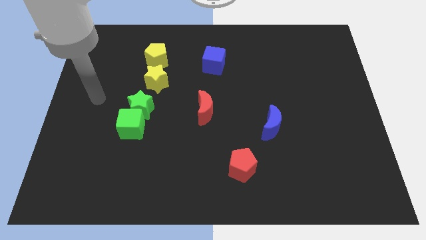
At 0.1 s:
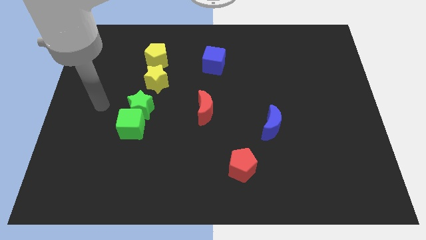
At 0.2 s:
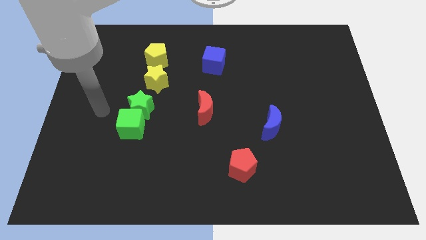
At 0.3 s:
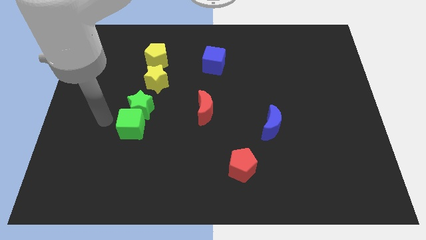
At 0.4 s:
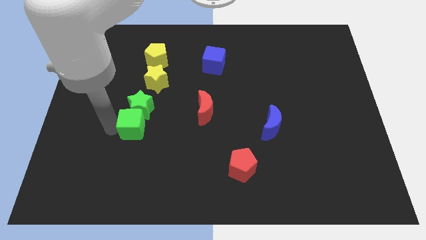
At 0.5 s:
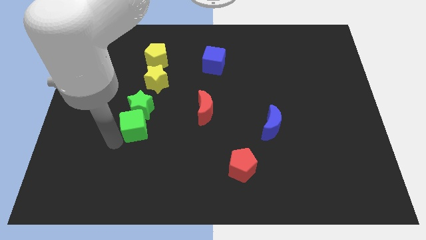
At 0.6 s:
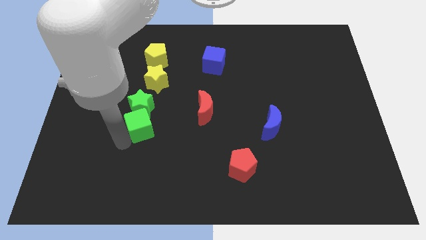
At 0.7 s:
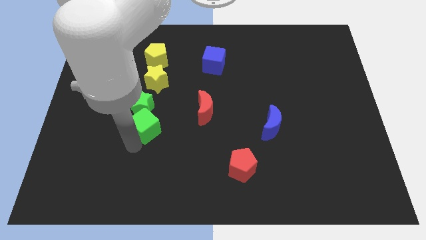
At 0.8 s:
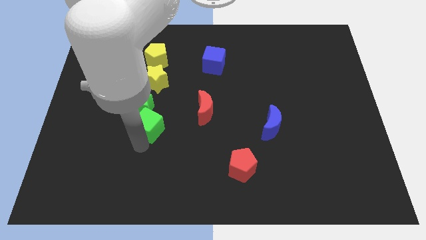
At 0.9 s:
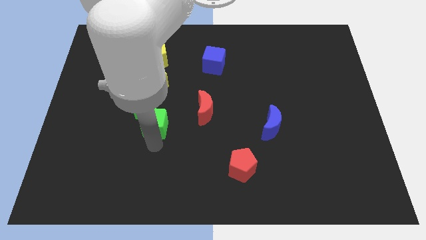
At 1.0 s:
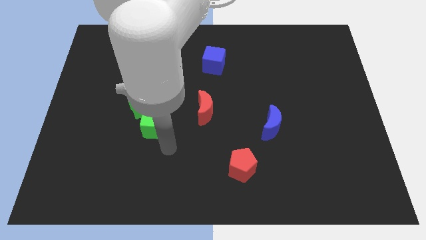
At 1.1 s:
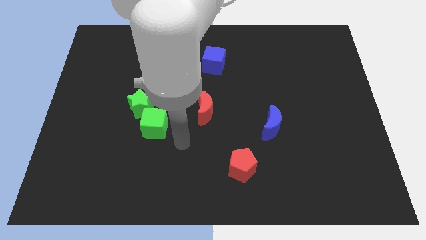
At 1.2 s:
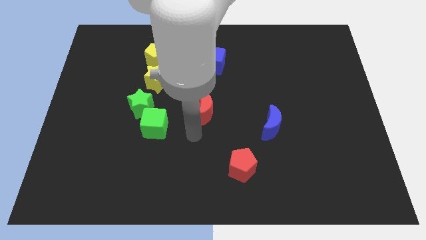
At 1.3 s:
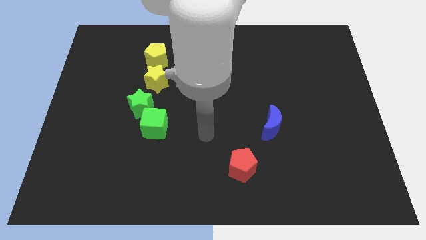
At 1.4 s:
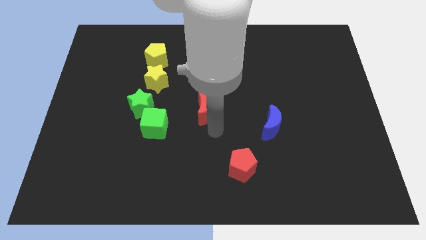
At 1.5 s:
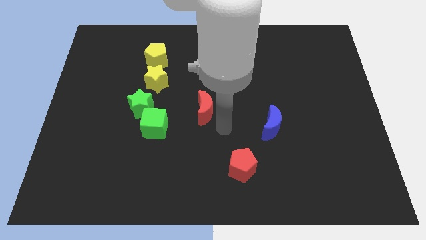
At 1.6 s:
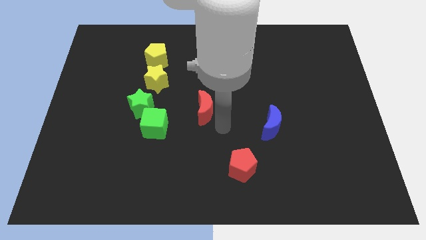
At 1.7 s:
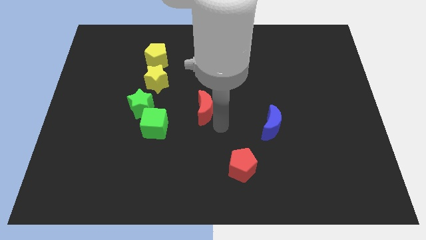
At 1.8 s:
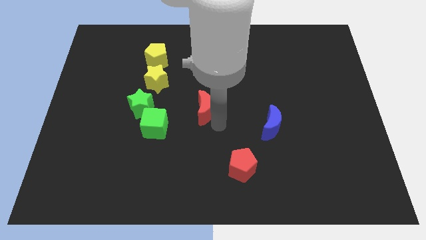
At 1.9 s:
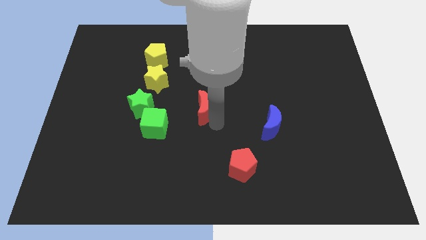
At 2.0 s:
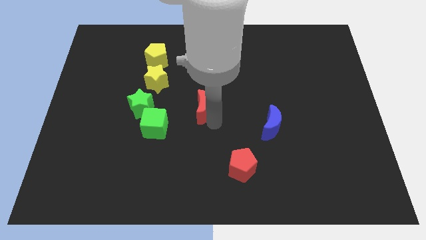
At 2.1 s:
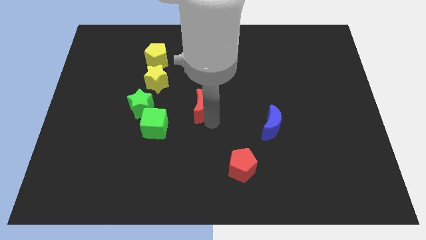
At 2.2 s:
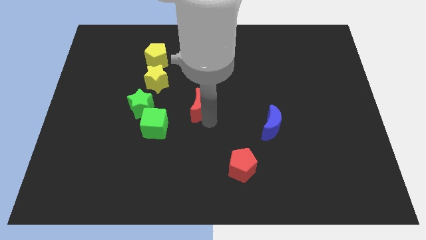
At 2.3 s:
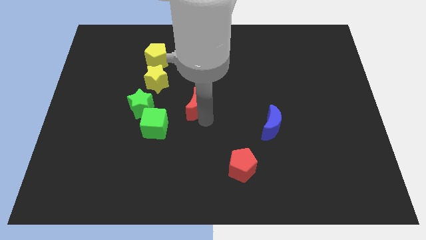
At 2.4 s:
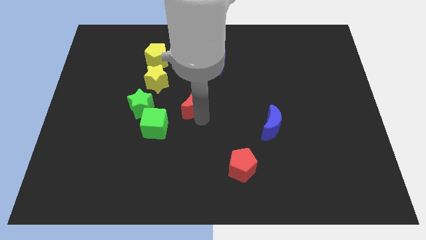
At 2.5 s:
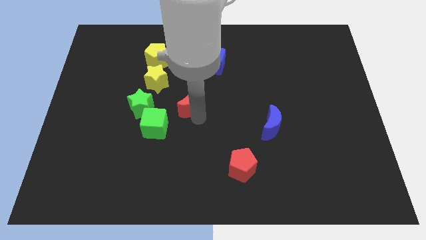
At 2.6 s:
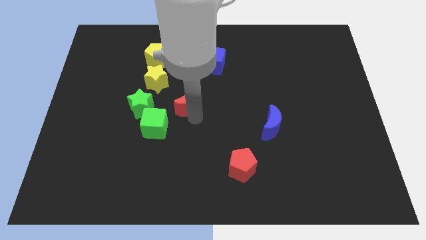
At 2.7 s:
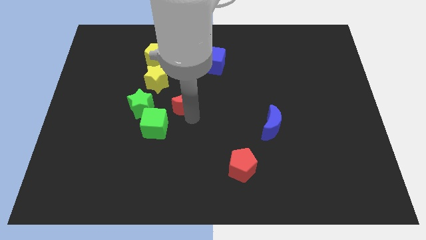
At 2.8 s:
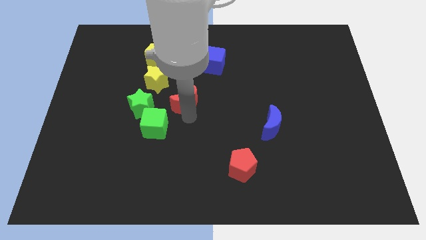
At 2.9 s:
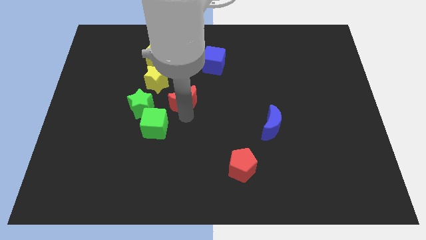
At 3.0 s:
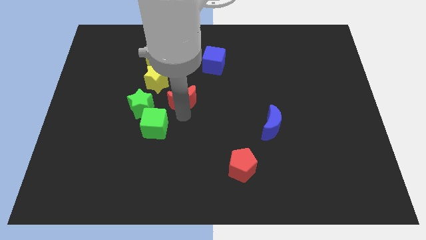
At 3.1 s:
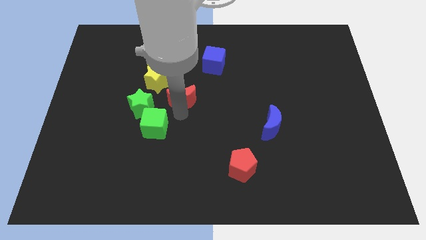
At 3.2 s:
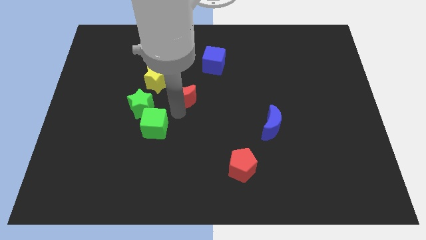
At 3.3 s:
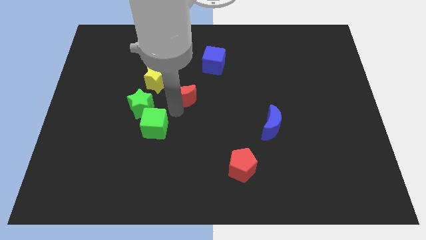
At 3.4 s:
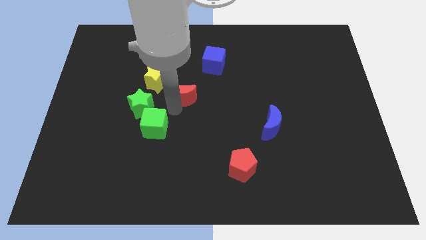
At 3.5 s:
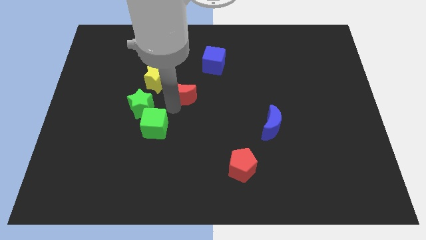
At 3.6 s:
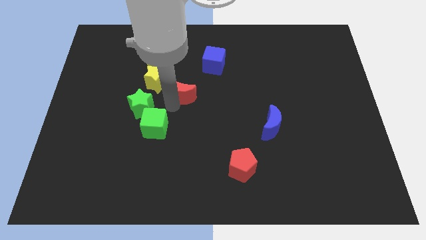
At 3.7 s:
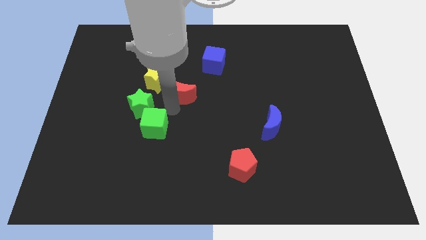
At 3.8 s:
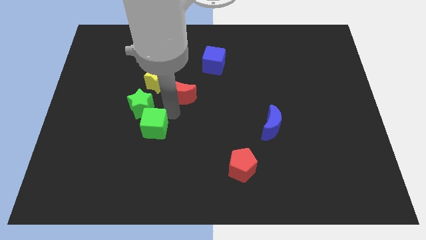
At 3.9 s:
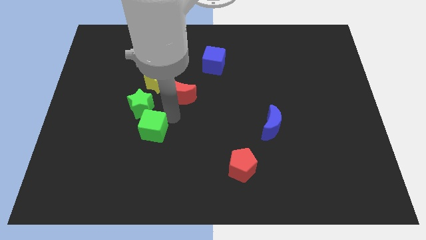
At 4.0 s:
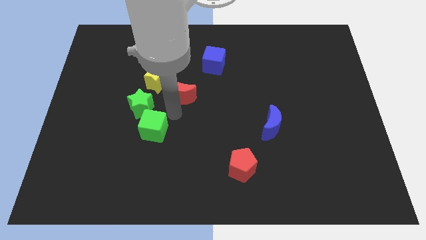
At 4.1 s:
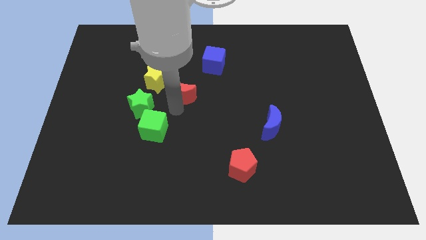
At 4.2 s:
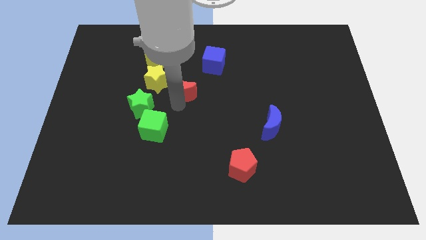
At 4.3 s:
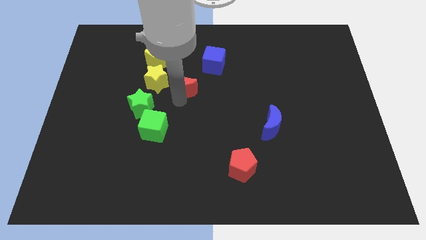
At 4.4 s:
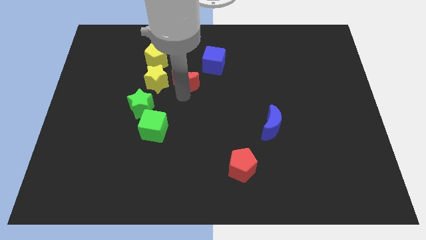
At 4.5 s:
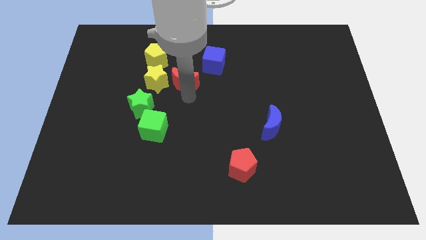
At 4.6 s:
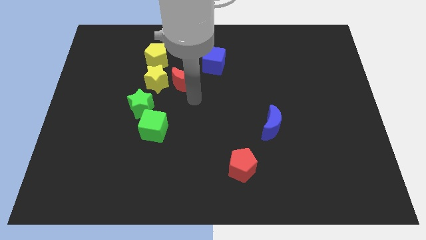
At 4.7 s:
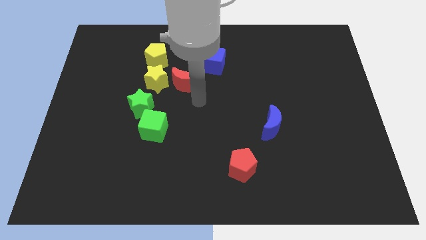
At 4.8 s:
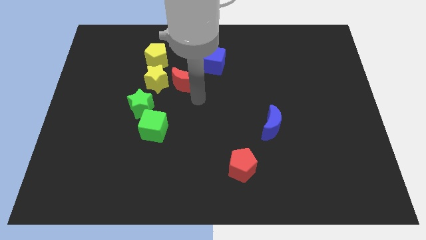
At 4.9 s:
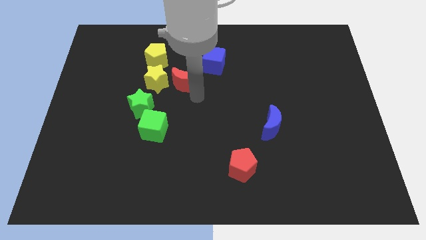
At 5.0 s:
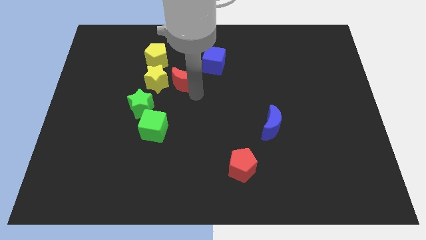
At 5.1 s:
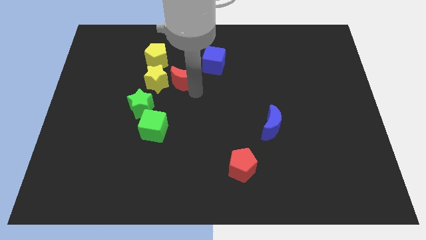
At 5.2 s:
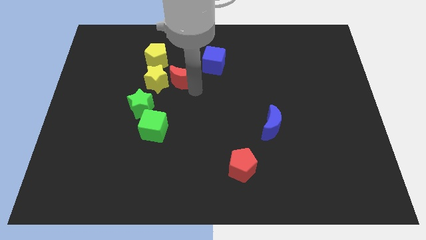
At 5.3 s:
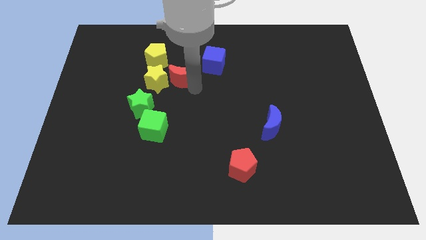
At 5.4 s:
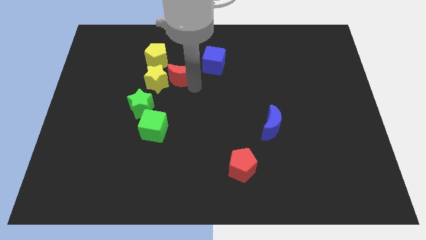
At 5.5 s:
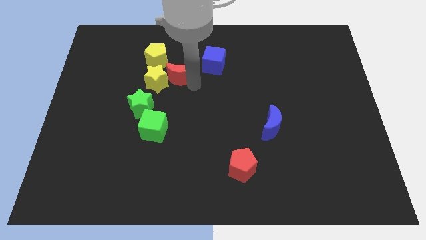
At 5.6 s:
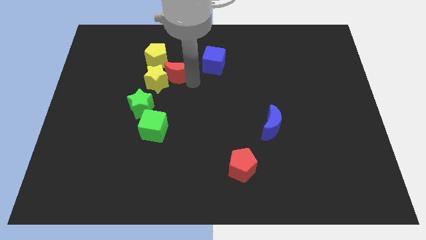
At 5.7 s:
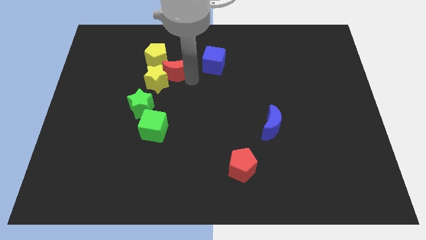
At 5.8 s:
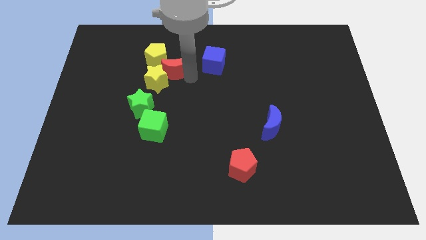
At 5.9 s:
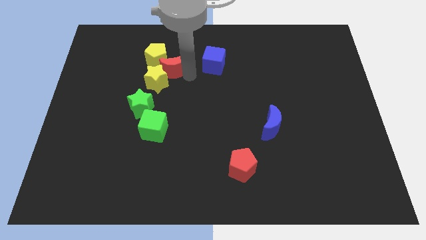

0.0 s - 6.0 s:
move the red moon to the yellow pentagon

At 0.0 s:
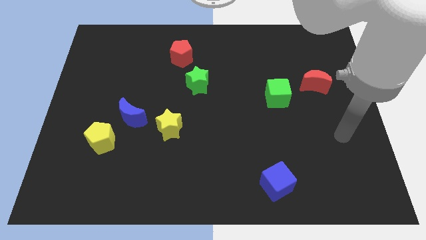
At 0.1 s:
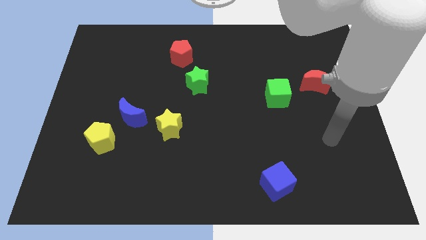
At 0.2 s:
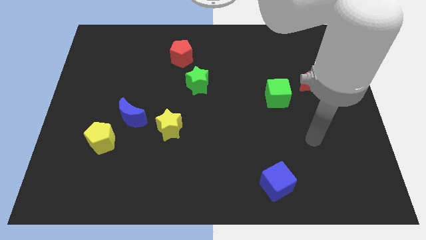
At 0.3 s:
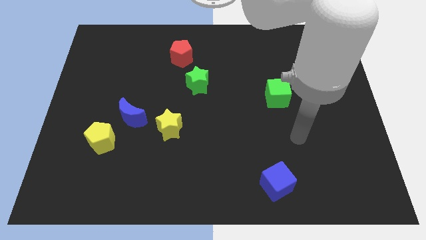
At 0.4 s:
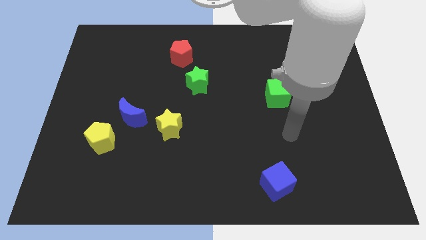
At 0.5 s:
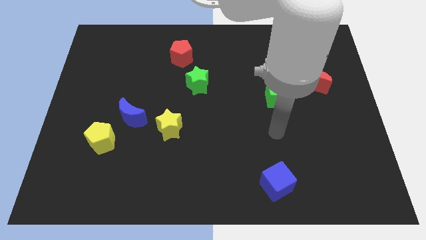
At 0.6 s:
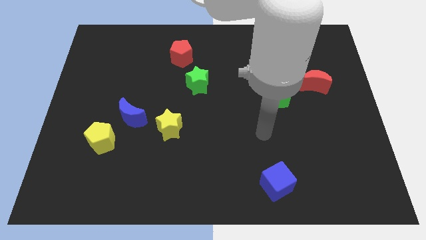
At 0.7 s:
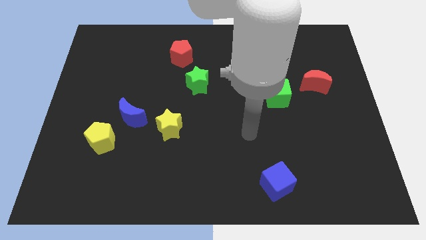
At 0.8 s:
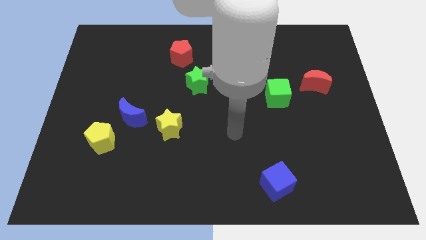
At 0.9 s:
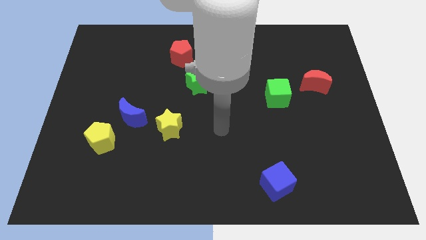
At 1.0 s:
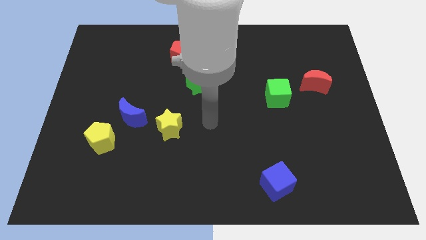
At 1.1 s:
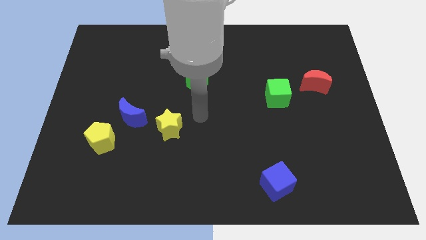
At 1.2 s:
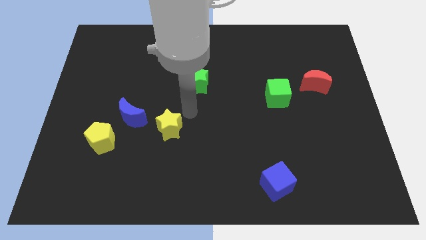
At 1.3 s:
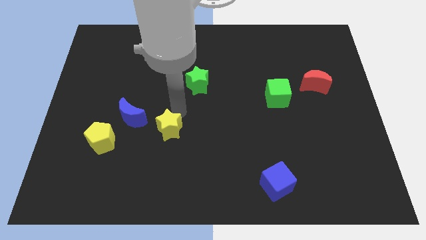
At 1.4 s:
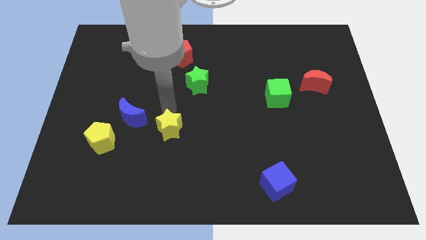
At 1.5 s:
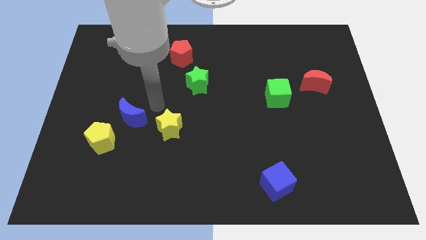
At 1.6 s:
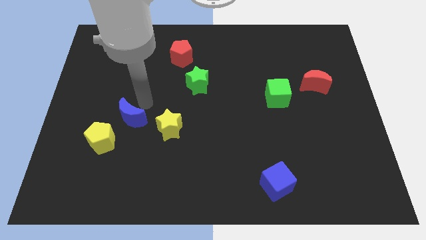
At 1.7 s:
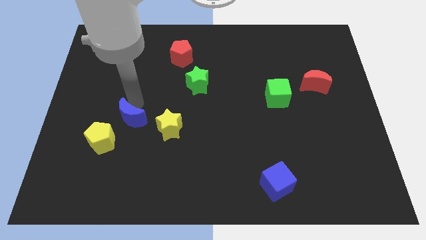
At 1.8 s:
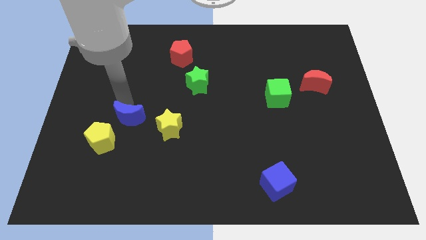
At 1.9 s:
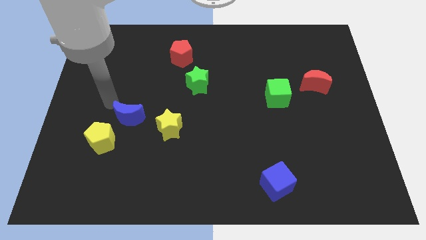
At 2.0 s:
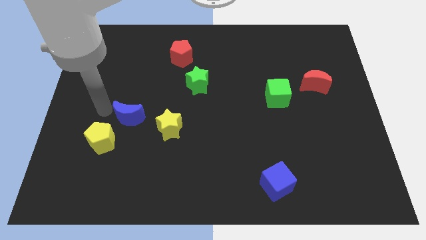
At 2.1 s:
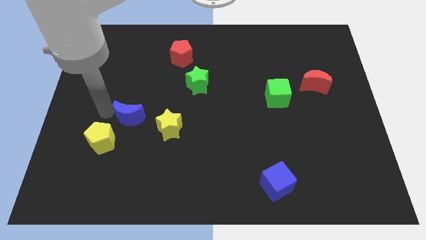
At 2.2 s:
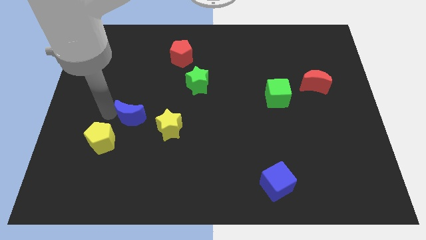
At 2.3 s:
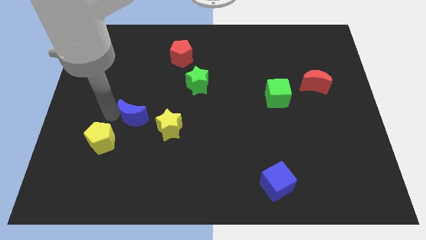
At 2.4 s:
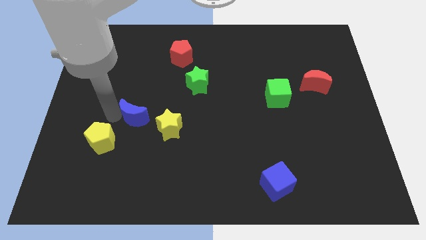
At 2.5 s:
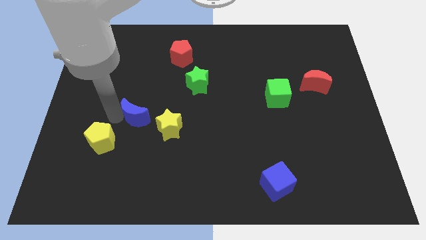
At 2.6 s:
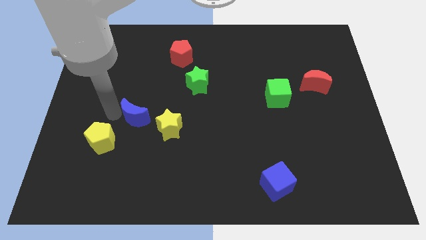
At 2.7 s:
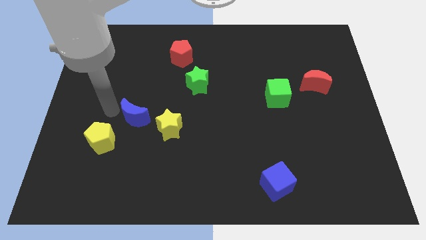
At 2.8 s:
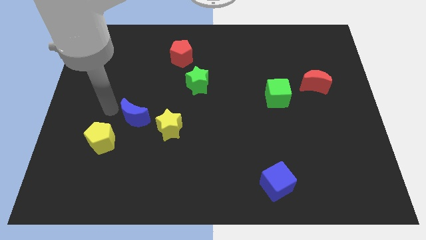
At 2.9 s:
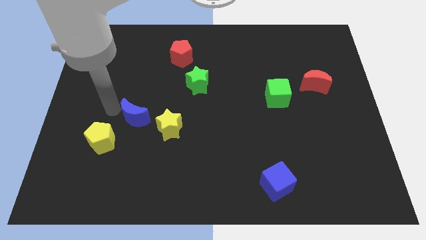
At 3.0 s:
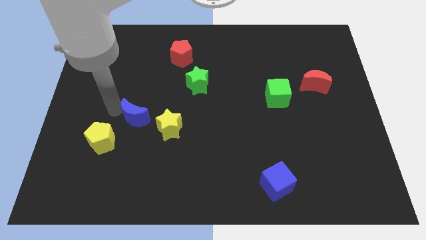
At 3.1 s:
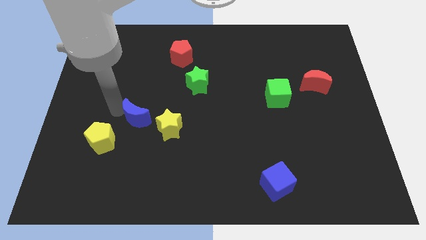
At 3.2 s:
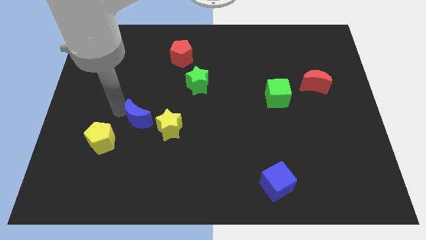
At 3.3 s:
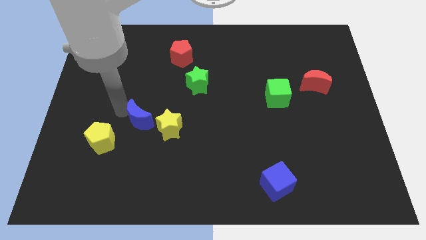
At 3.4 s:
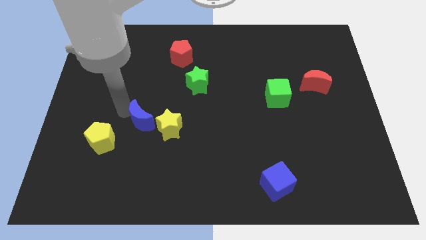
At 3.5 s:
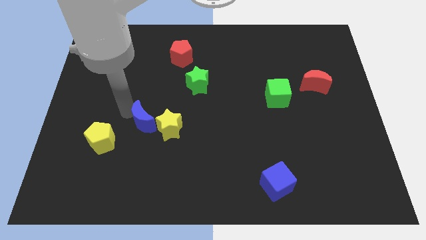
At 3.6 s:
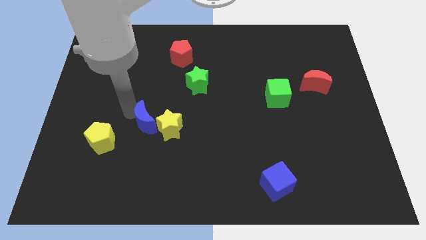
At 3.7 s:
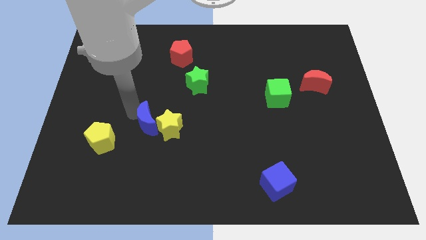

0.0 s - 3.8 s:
put the blue moon next to the yellow star
